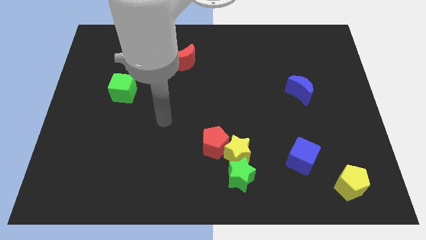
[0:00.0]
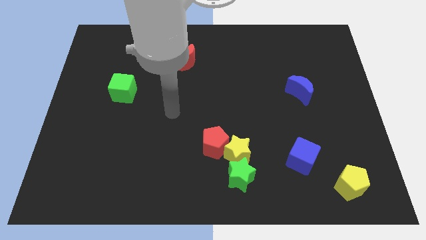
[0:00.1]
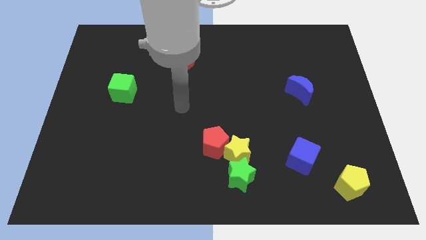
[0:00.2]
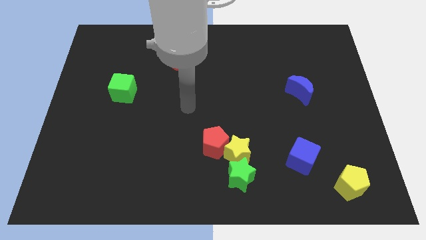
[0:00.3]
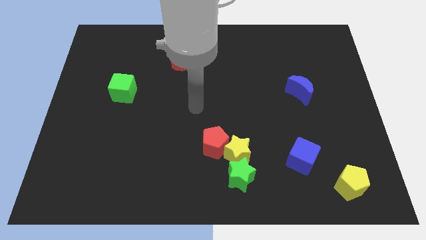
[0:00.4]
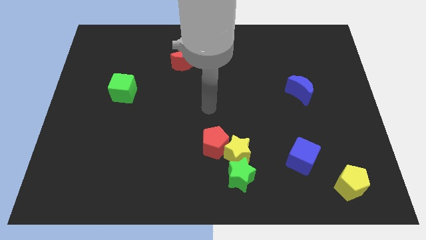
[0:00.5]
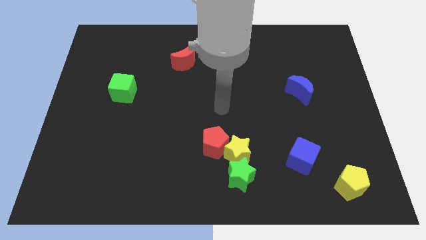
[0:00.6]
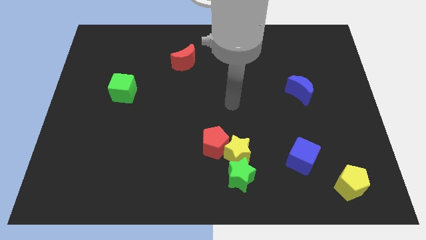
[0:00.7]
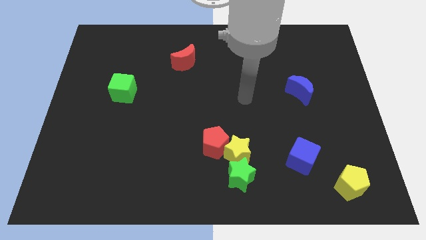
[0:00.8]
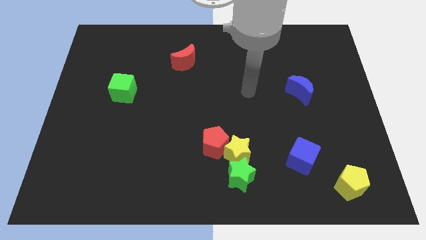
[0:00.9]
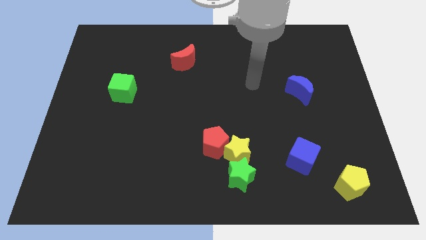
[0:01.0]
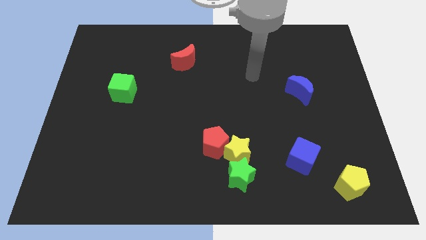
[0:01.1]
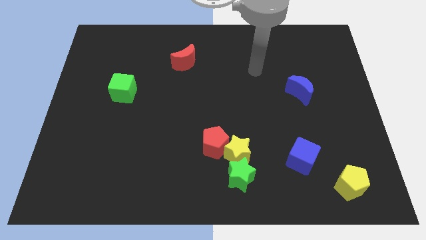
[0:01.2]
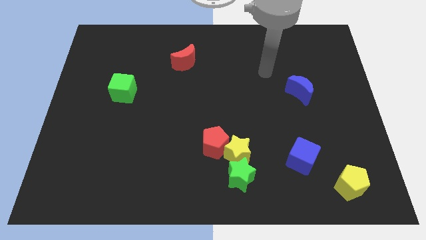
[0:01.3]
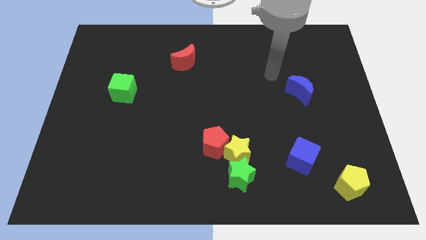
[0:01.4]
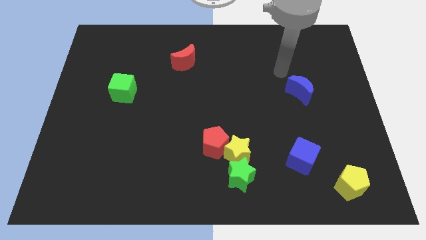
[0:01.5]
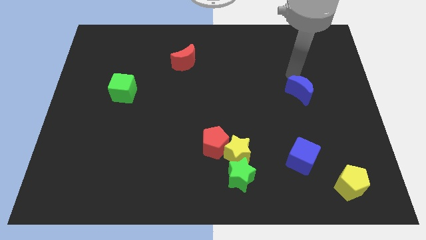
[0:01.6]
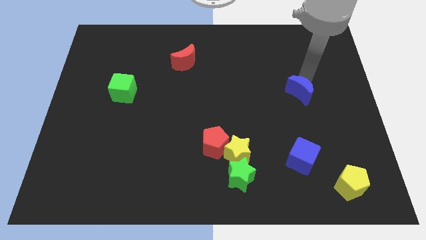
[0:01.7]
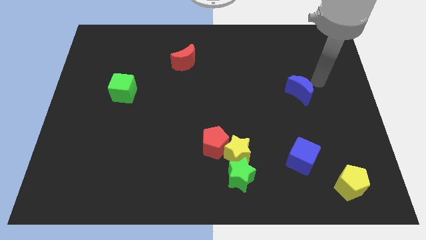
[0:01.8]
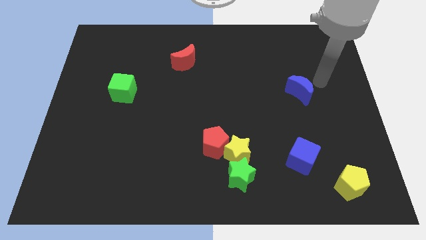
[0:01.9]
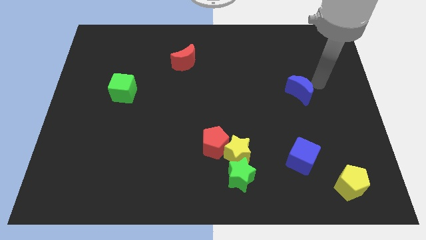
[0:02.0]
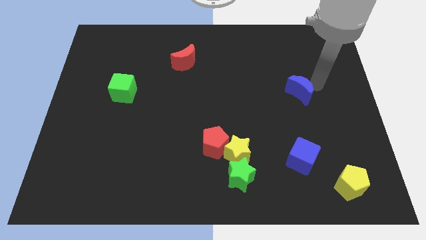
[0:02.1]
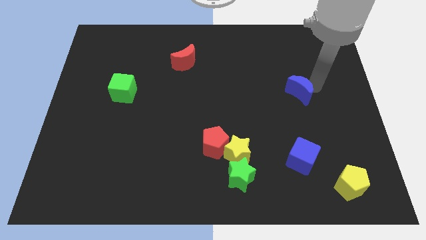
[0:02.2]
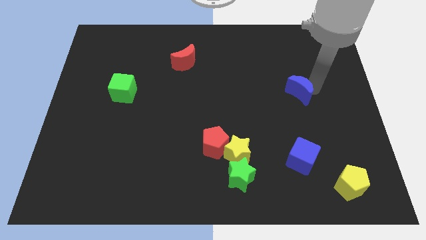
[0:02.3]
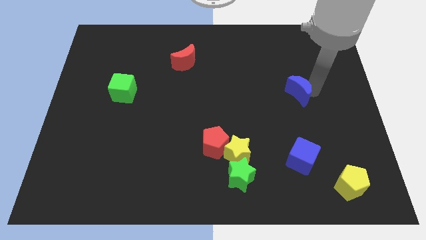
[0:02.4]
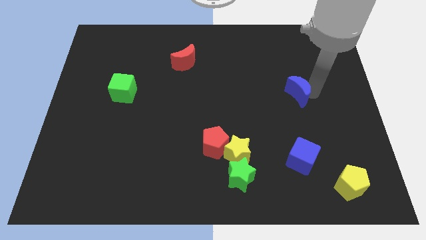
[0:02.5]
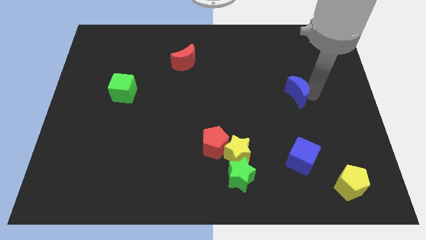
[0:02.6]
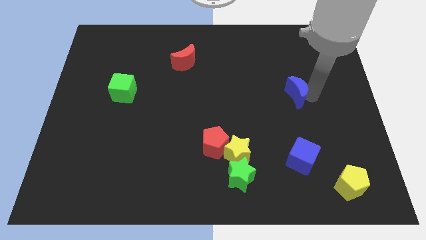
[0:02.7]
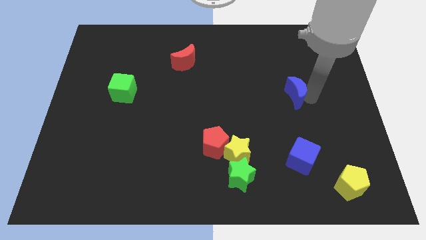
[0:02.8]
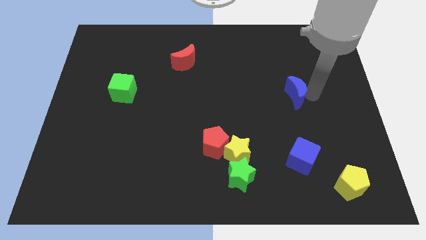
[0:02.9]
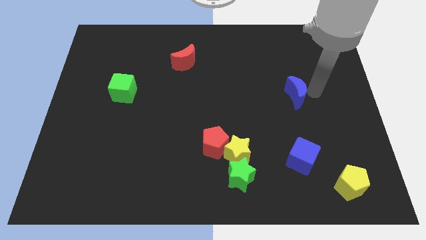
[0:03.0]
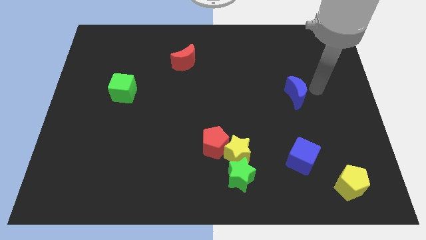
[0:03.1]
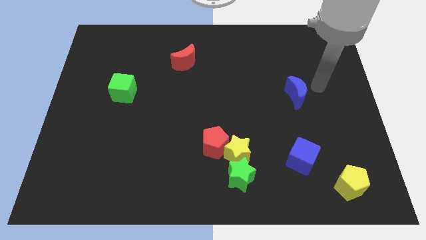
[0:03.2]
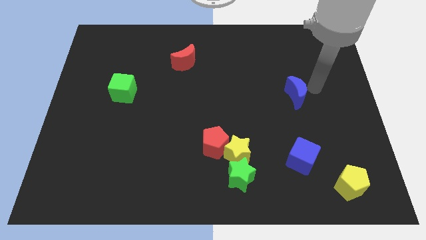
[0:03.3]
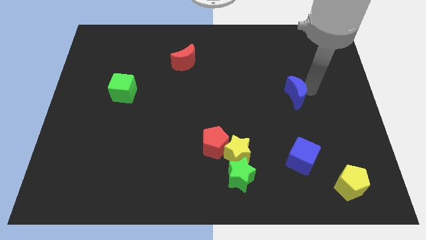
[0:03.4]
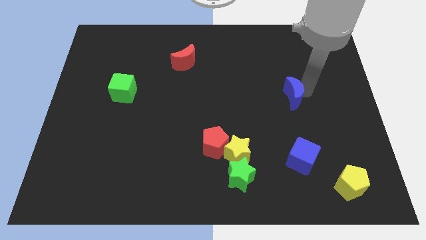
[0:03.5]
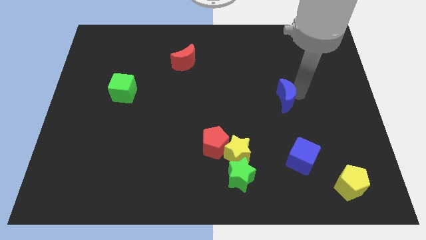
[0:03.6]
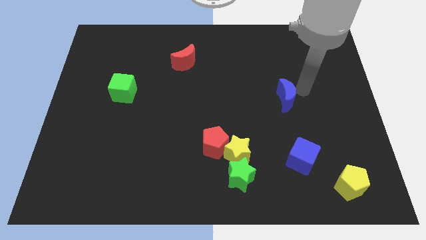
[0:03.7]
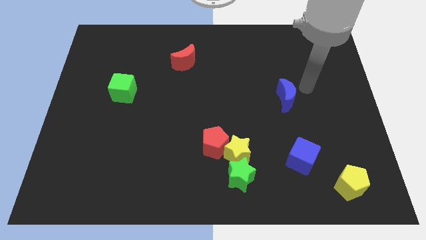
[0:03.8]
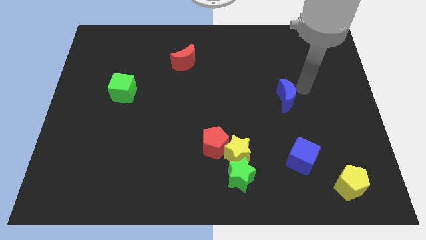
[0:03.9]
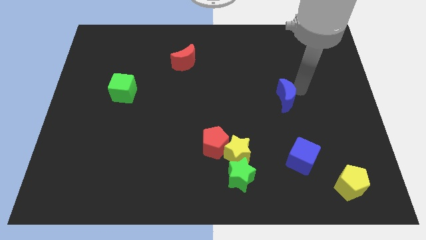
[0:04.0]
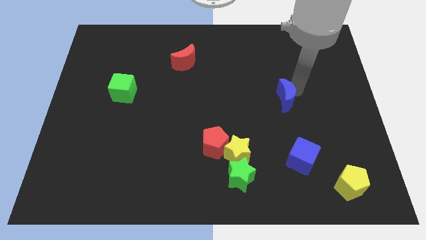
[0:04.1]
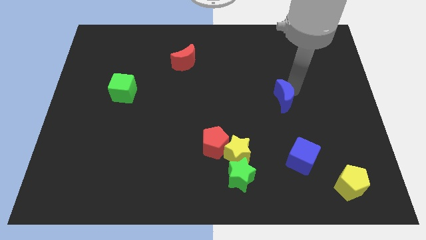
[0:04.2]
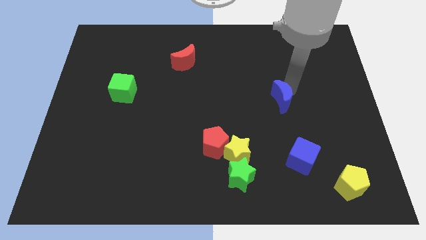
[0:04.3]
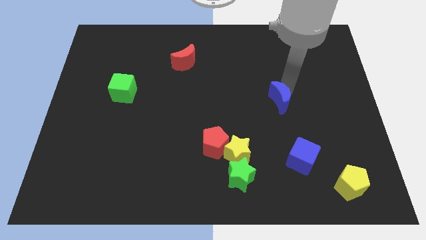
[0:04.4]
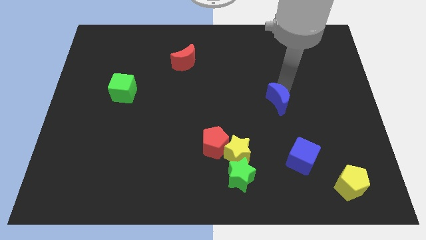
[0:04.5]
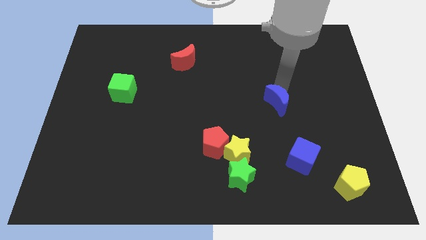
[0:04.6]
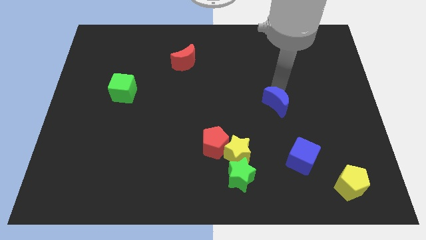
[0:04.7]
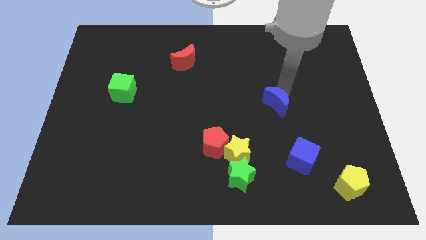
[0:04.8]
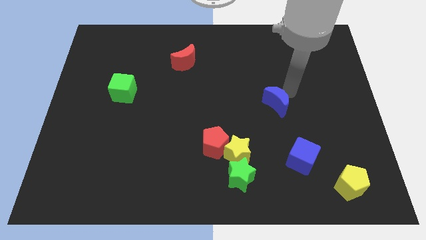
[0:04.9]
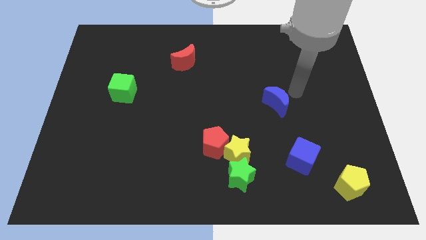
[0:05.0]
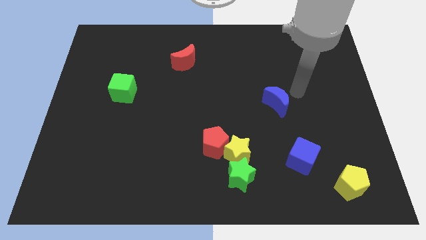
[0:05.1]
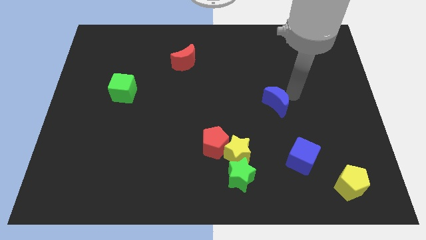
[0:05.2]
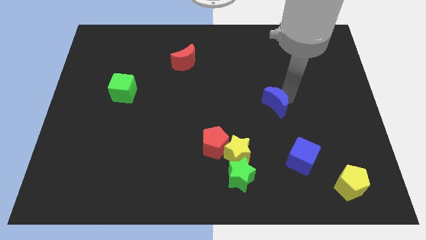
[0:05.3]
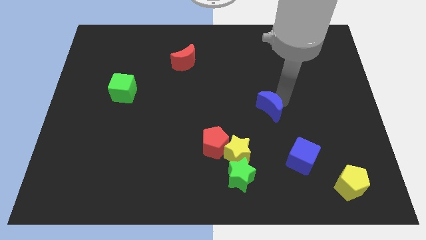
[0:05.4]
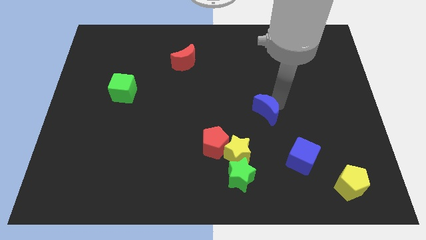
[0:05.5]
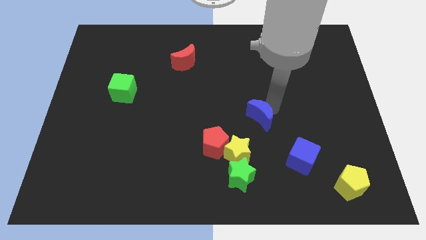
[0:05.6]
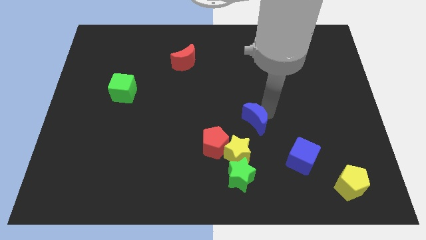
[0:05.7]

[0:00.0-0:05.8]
move the blue moon to the top right of the red pentagon

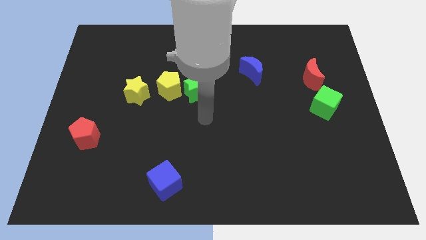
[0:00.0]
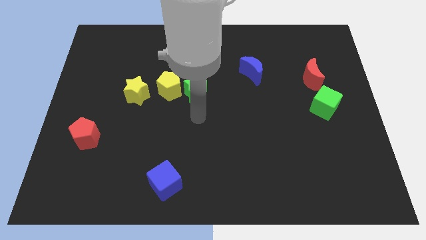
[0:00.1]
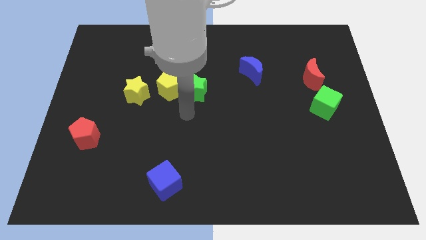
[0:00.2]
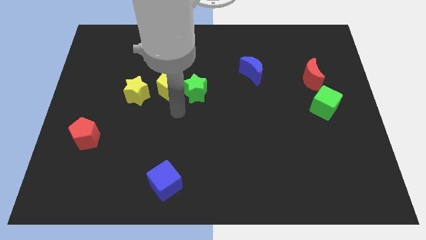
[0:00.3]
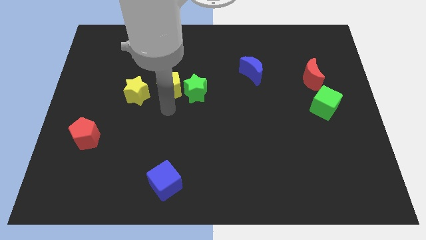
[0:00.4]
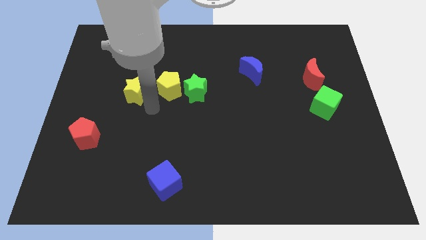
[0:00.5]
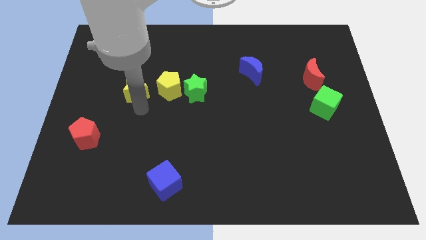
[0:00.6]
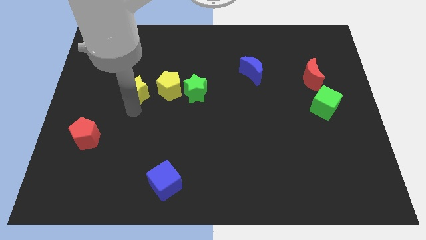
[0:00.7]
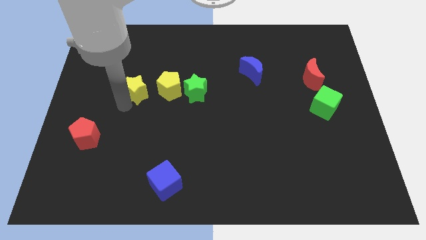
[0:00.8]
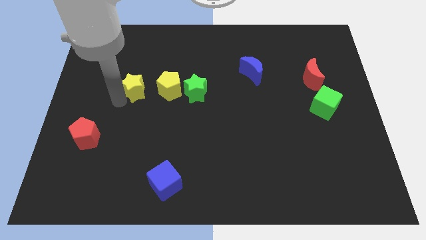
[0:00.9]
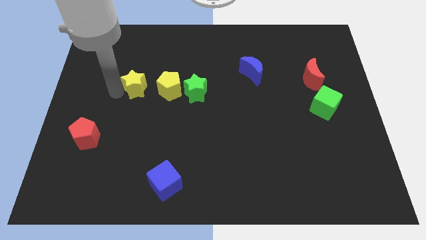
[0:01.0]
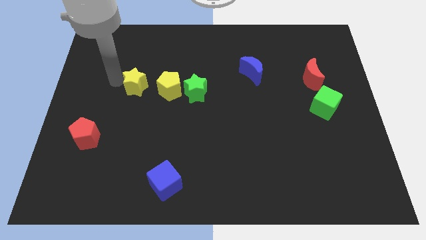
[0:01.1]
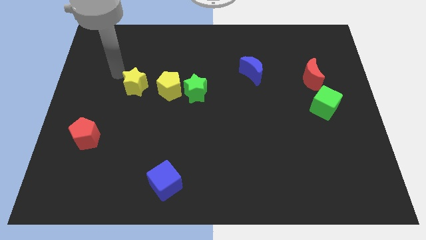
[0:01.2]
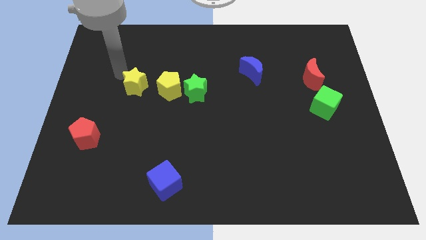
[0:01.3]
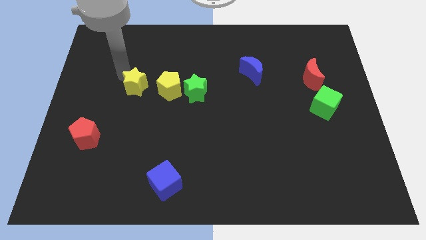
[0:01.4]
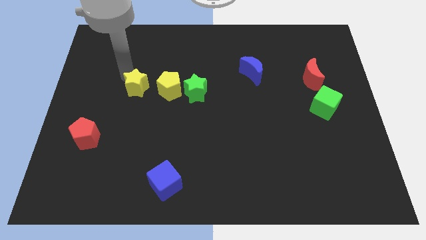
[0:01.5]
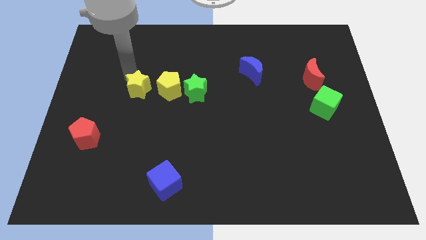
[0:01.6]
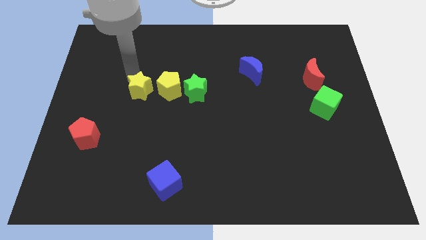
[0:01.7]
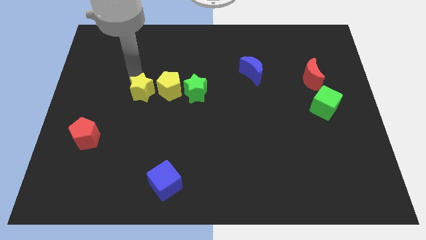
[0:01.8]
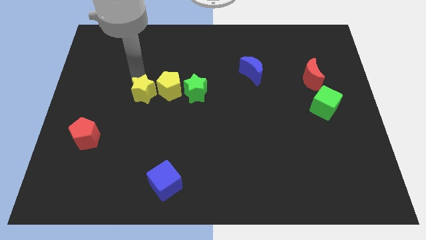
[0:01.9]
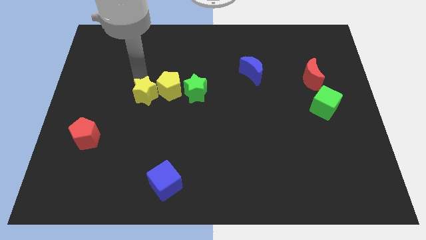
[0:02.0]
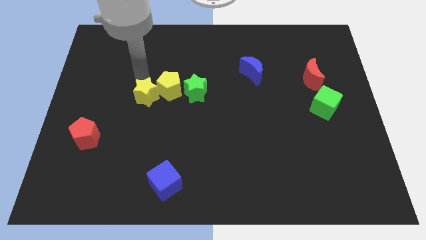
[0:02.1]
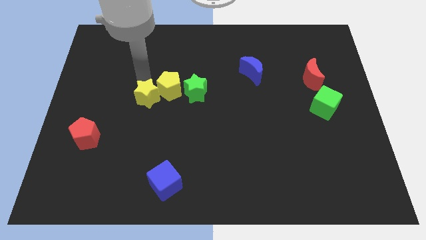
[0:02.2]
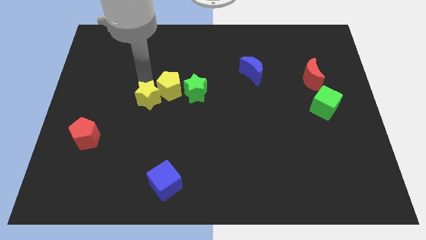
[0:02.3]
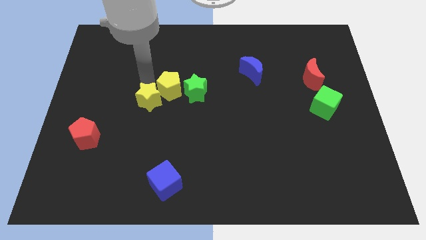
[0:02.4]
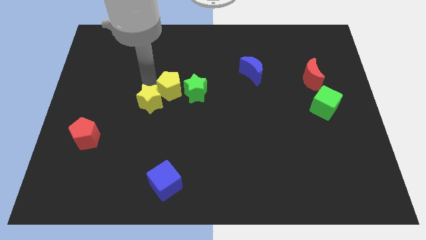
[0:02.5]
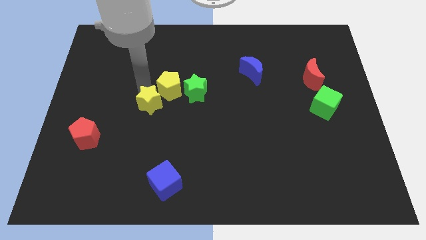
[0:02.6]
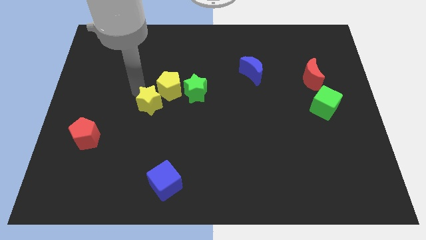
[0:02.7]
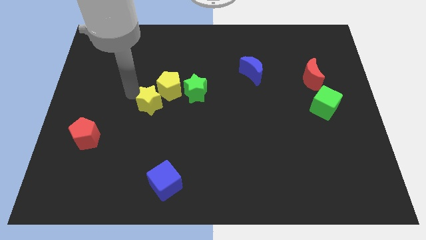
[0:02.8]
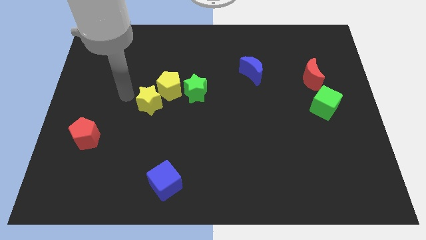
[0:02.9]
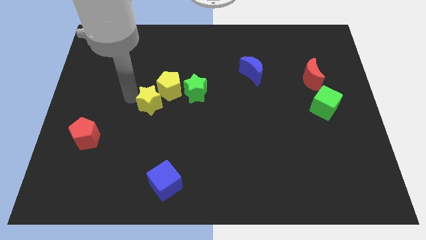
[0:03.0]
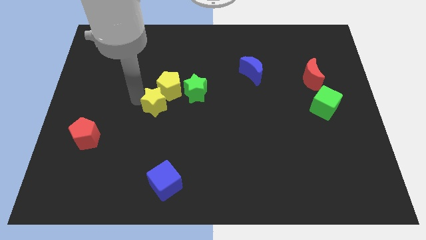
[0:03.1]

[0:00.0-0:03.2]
slide the yellow star diagonally down and to the left of the green star
